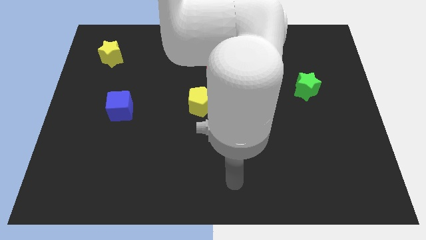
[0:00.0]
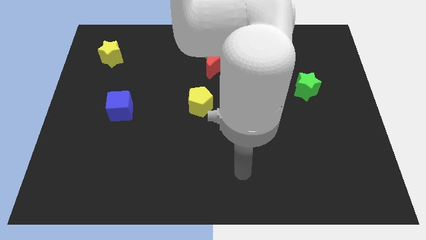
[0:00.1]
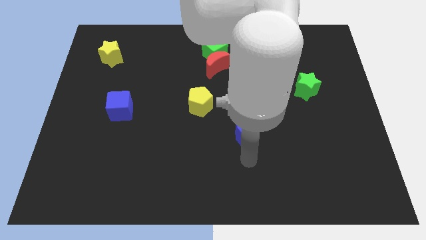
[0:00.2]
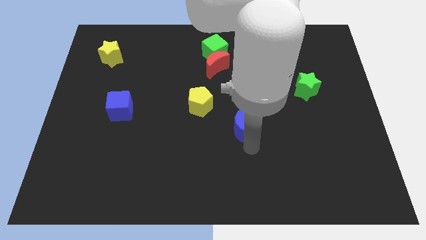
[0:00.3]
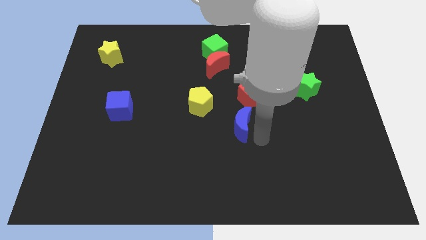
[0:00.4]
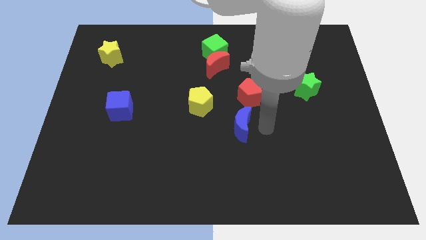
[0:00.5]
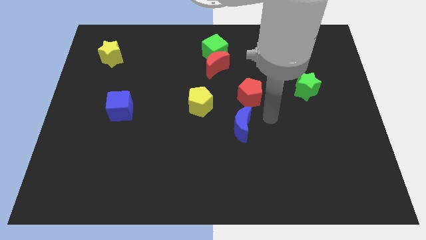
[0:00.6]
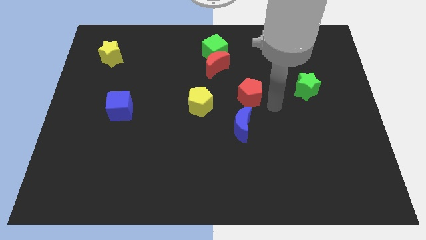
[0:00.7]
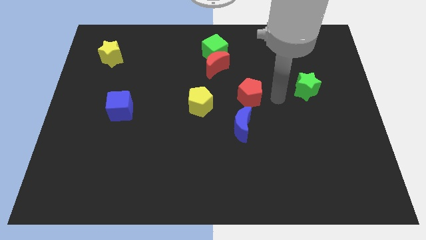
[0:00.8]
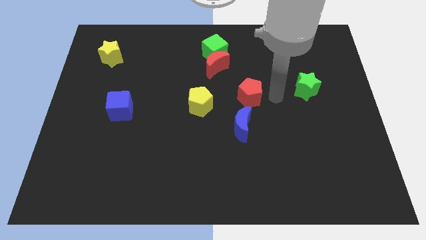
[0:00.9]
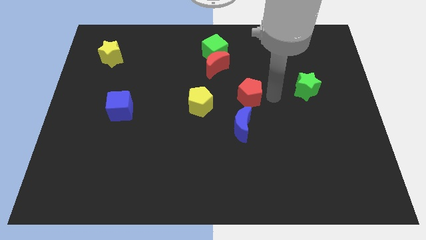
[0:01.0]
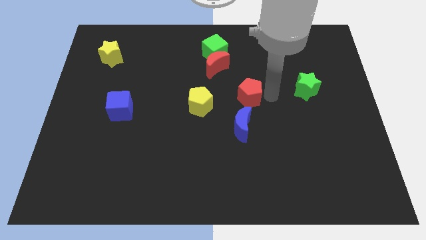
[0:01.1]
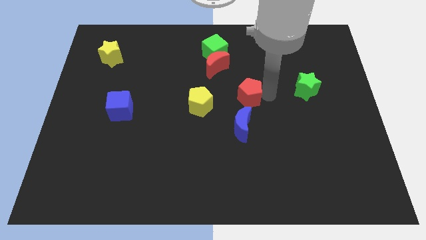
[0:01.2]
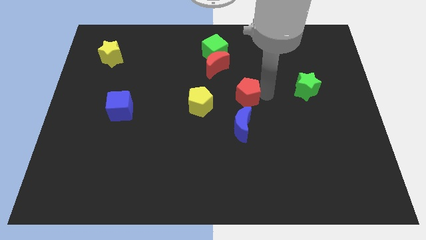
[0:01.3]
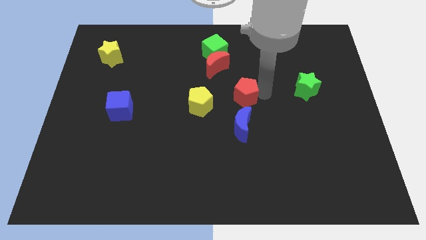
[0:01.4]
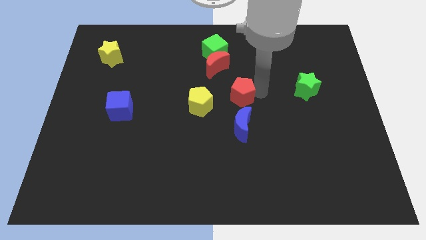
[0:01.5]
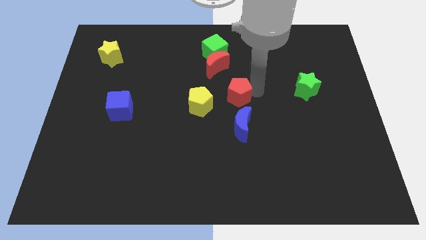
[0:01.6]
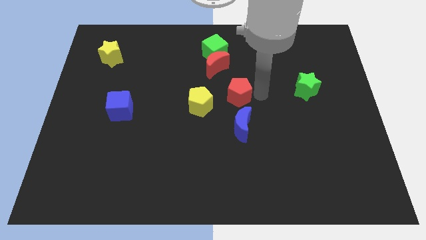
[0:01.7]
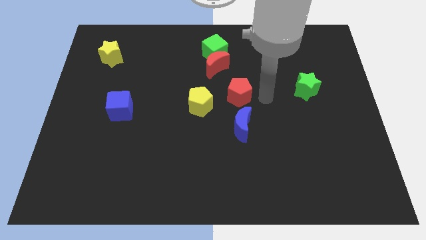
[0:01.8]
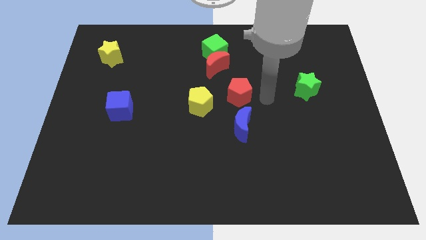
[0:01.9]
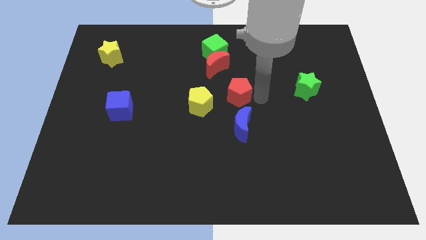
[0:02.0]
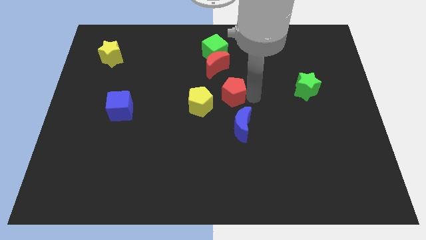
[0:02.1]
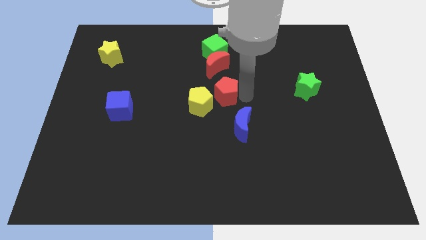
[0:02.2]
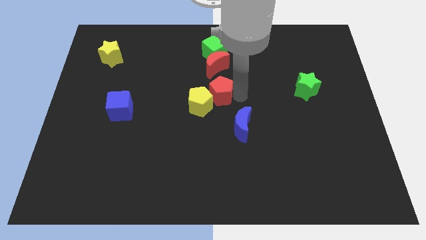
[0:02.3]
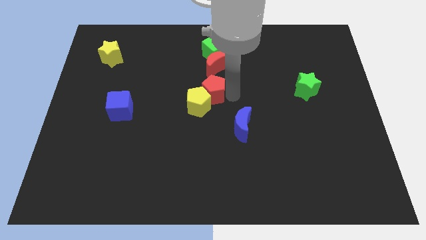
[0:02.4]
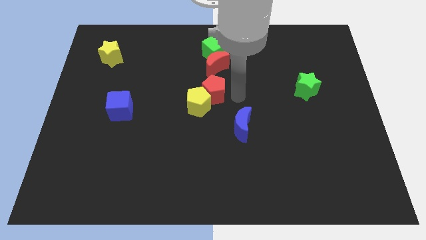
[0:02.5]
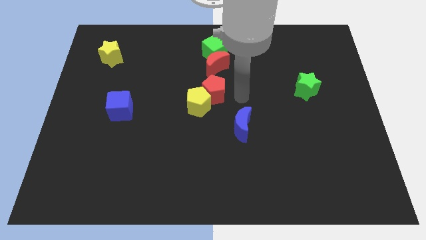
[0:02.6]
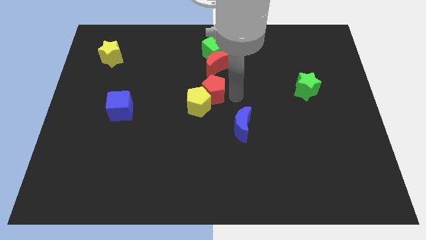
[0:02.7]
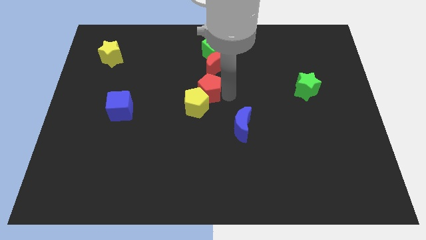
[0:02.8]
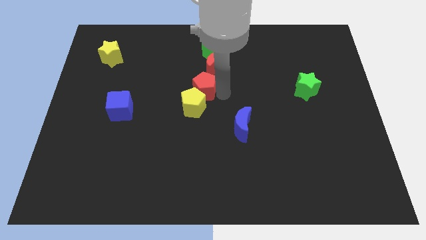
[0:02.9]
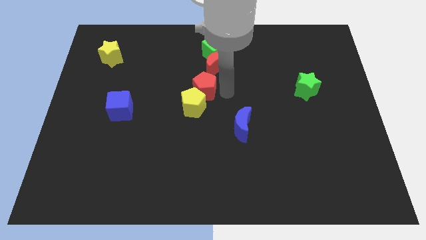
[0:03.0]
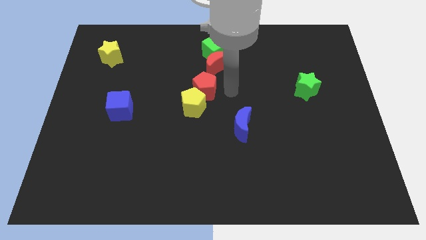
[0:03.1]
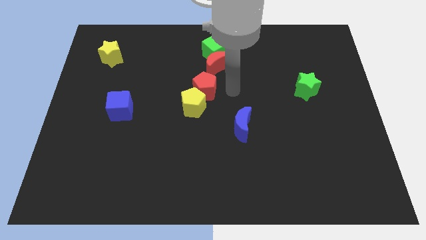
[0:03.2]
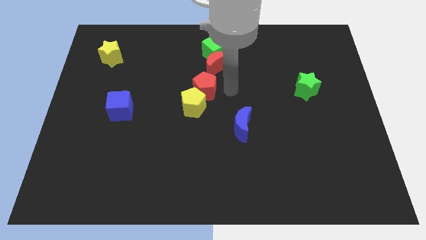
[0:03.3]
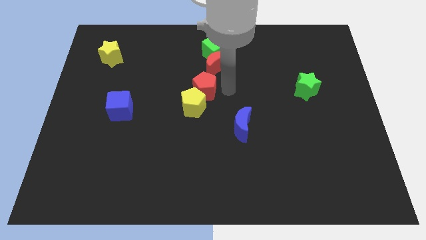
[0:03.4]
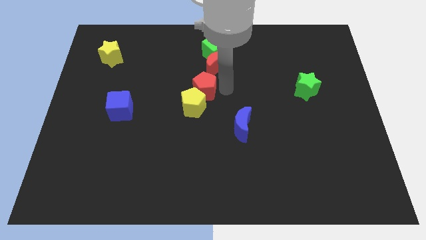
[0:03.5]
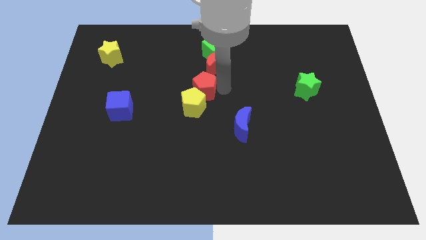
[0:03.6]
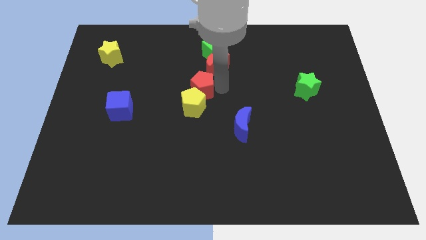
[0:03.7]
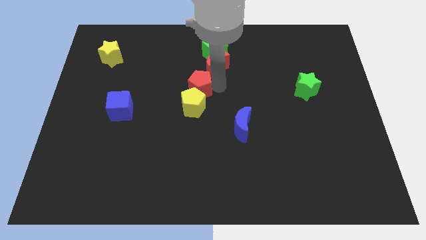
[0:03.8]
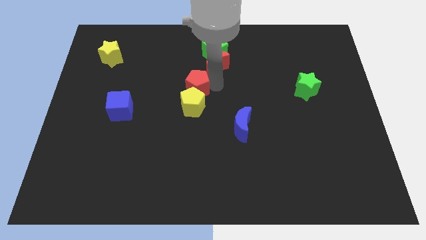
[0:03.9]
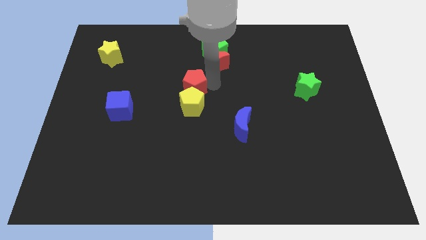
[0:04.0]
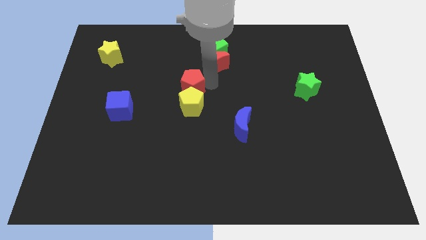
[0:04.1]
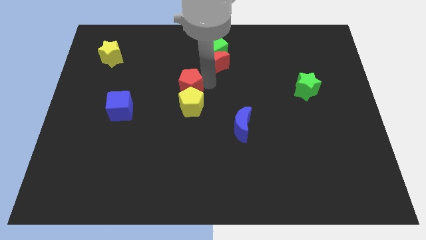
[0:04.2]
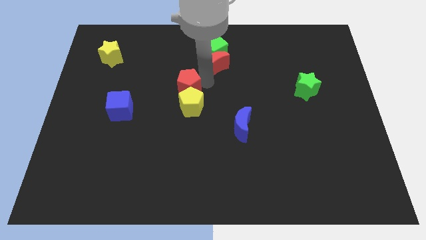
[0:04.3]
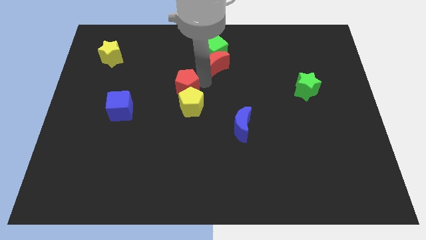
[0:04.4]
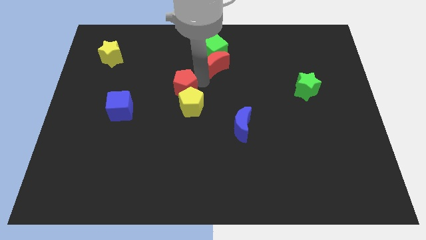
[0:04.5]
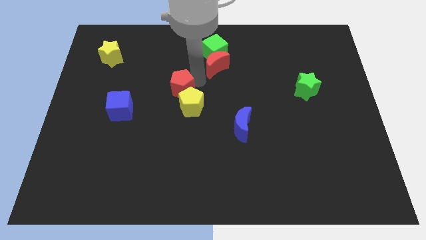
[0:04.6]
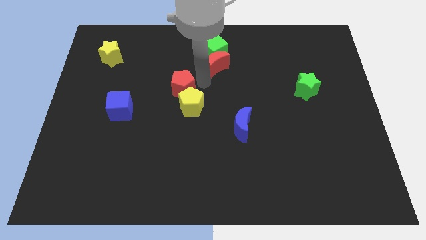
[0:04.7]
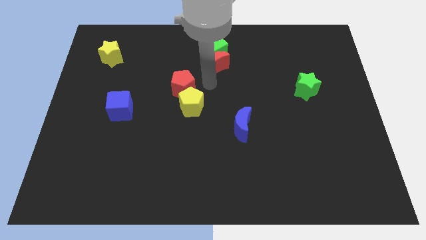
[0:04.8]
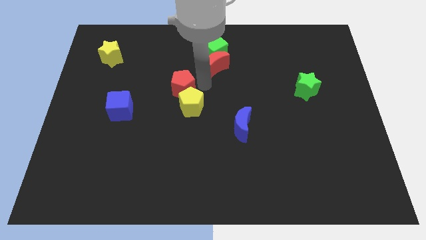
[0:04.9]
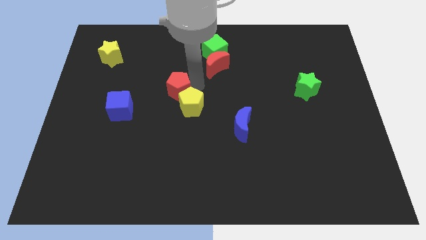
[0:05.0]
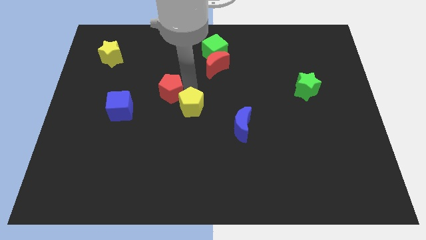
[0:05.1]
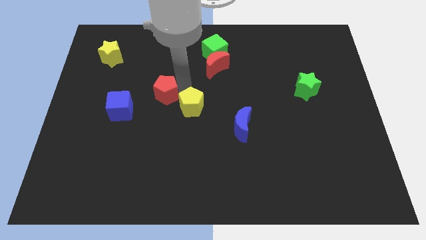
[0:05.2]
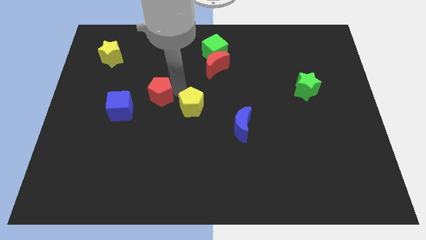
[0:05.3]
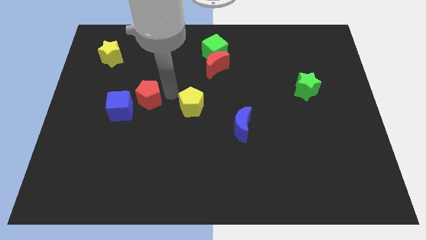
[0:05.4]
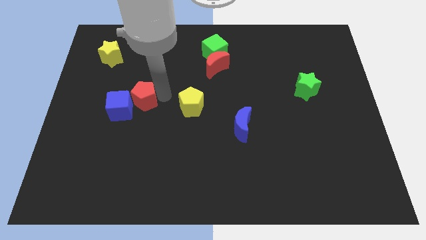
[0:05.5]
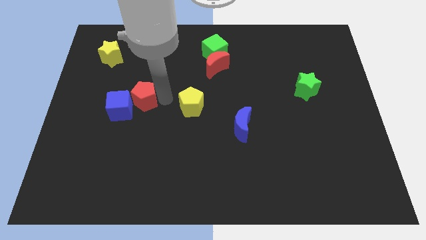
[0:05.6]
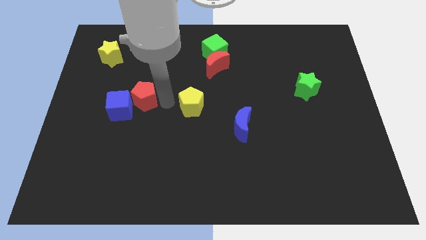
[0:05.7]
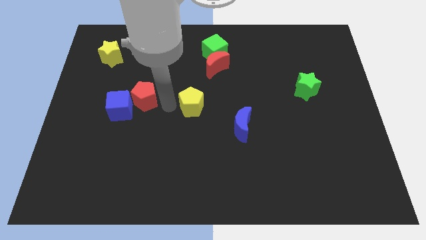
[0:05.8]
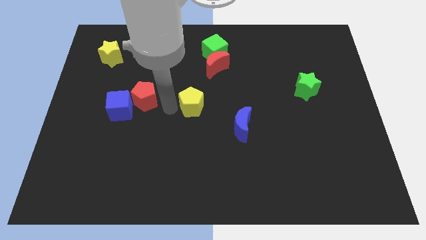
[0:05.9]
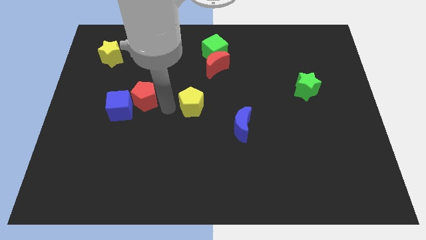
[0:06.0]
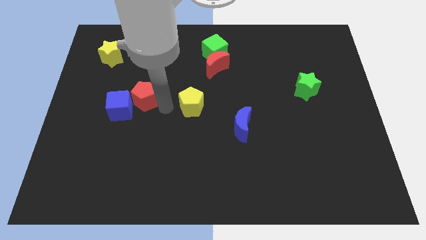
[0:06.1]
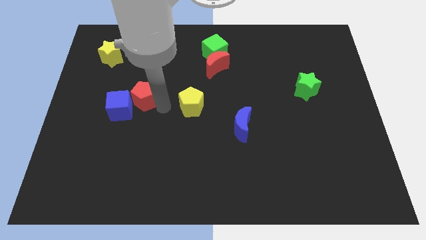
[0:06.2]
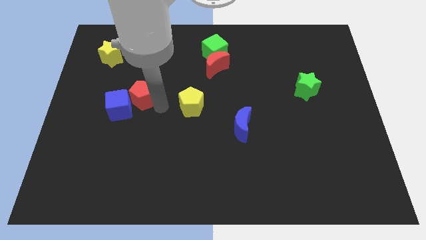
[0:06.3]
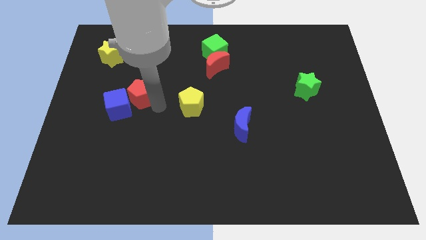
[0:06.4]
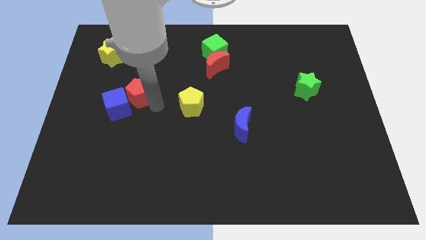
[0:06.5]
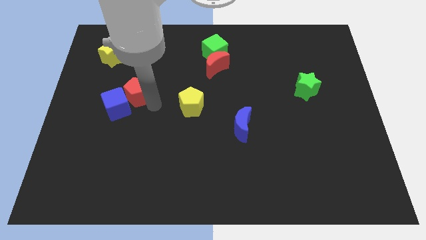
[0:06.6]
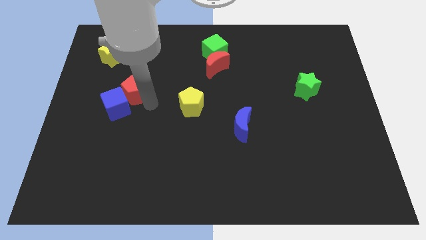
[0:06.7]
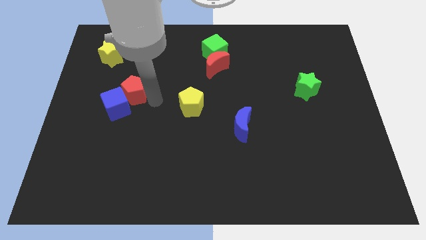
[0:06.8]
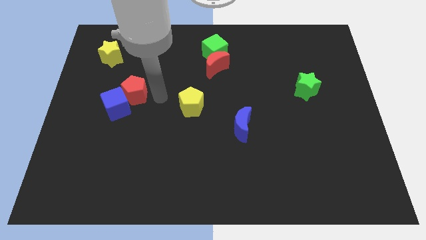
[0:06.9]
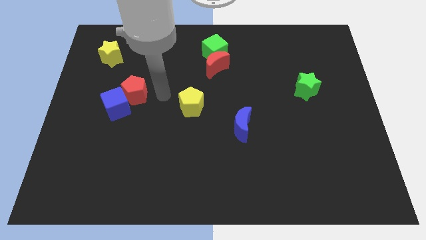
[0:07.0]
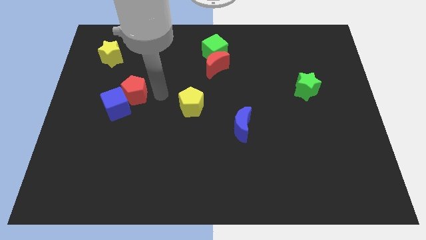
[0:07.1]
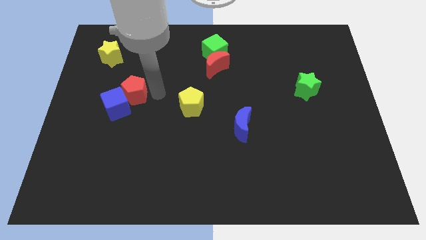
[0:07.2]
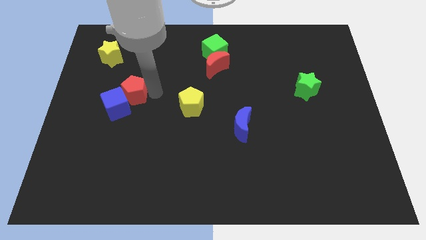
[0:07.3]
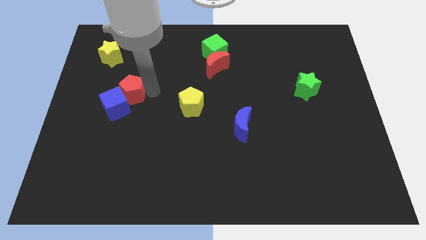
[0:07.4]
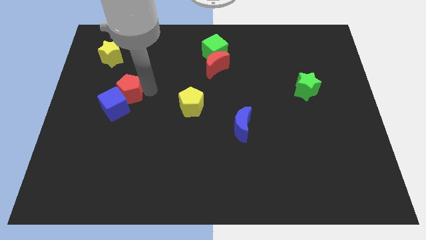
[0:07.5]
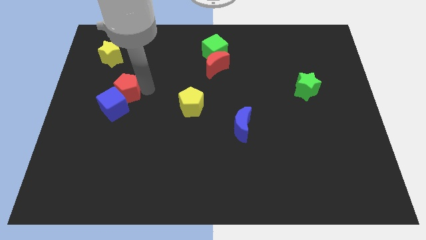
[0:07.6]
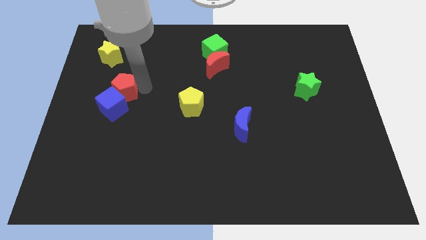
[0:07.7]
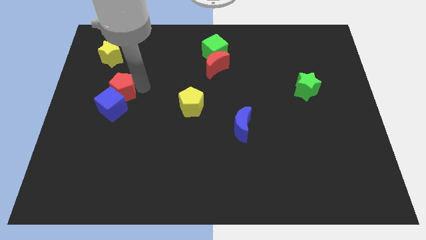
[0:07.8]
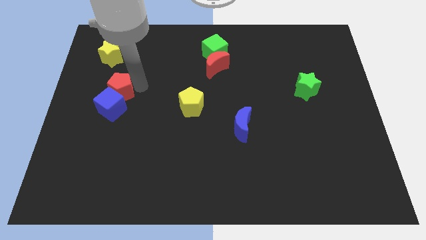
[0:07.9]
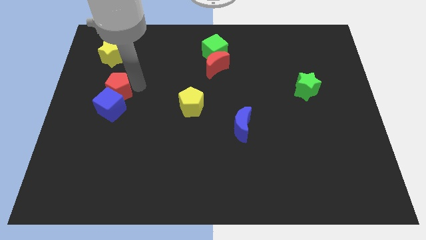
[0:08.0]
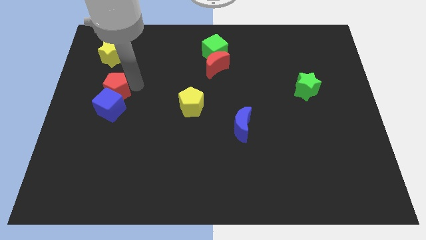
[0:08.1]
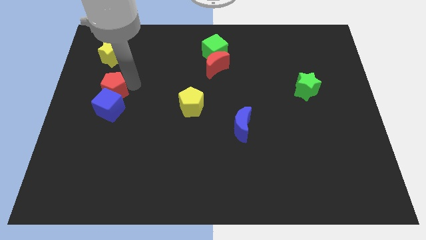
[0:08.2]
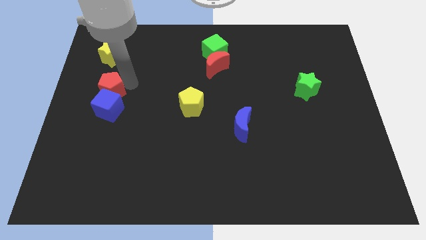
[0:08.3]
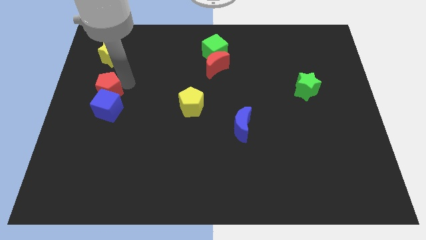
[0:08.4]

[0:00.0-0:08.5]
put the red pentagon to the left side
